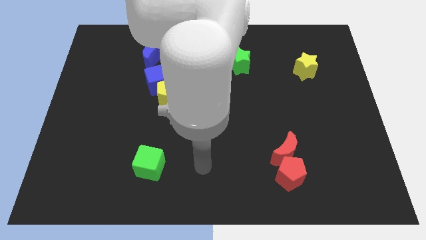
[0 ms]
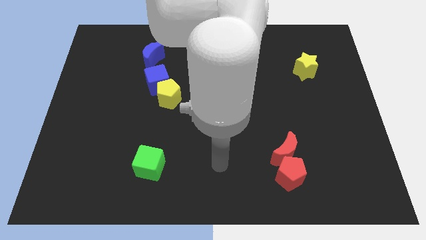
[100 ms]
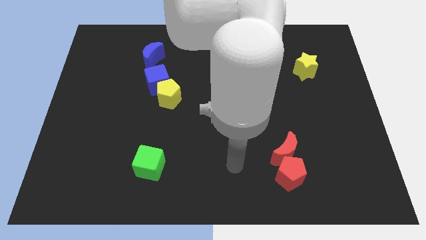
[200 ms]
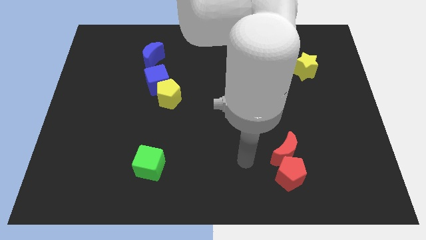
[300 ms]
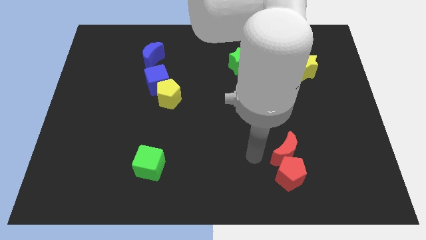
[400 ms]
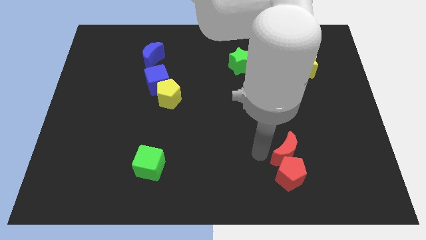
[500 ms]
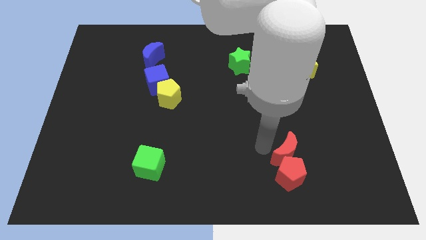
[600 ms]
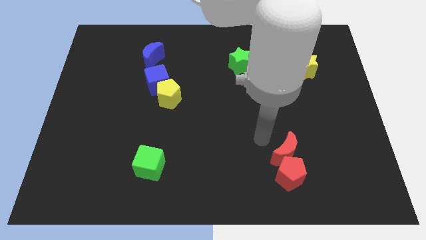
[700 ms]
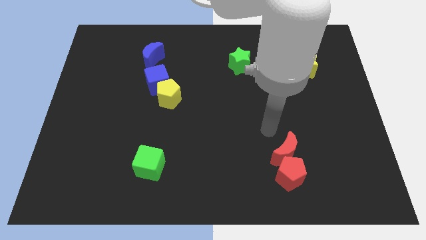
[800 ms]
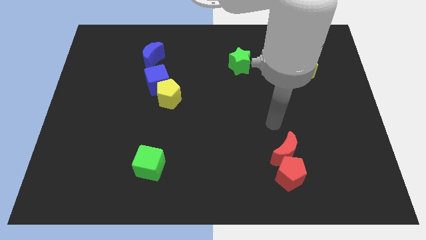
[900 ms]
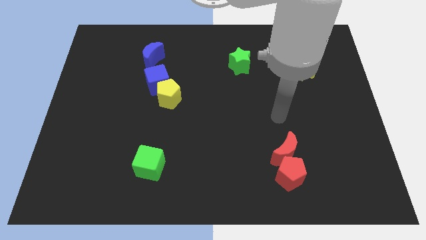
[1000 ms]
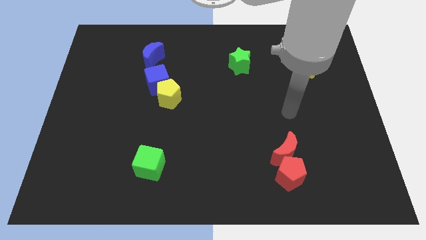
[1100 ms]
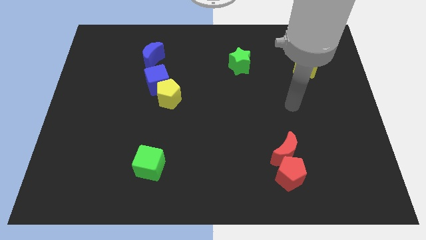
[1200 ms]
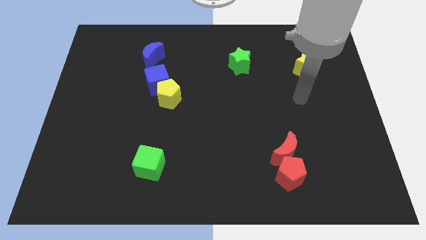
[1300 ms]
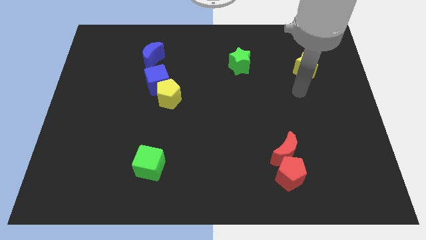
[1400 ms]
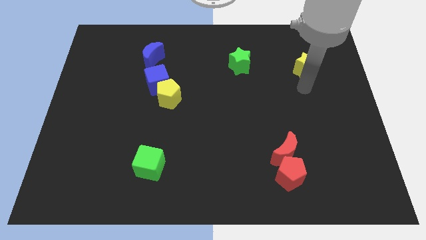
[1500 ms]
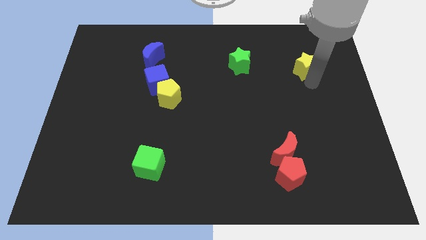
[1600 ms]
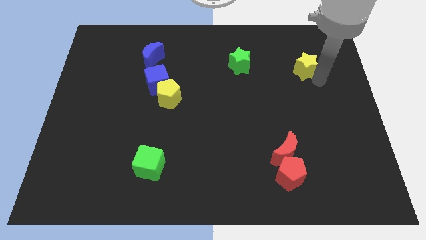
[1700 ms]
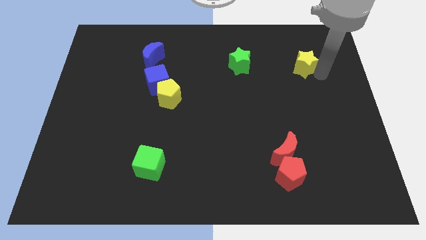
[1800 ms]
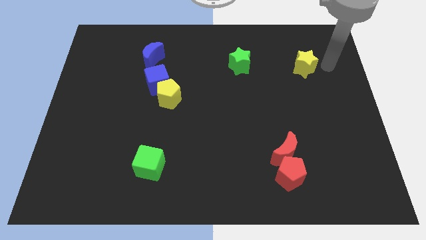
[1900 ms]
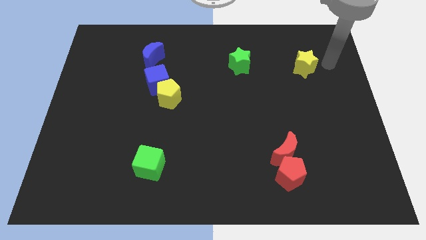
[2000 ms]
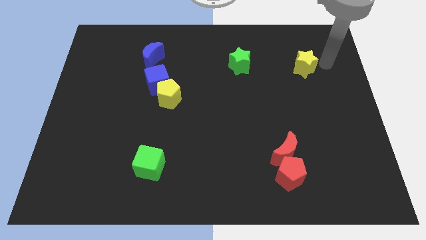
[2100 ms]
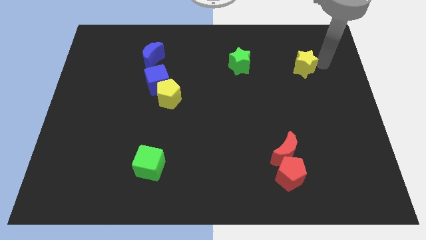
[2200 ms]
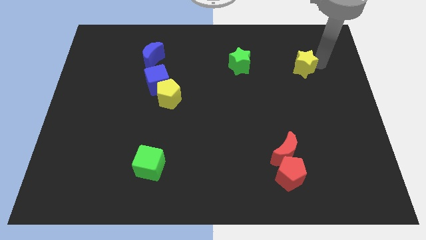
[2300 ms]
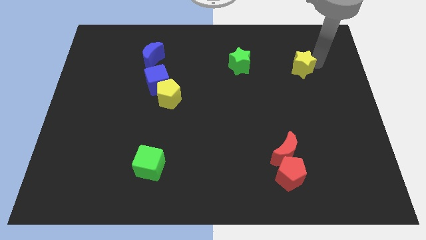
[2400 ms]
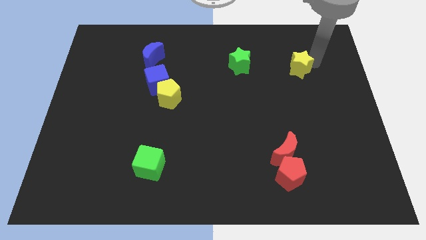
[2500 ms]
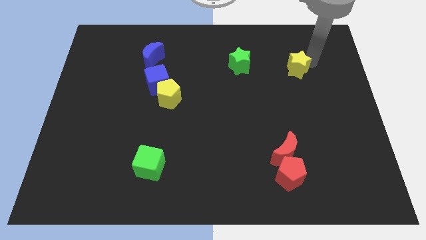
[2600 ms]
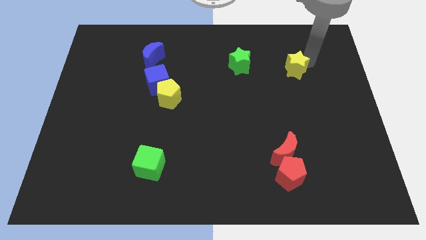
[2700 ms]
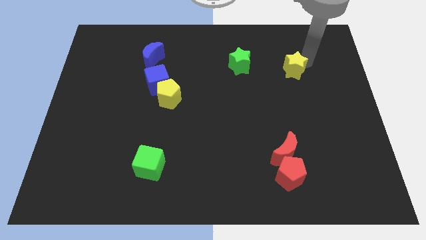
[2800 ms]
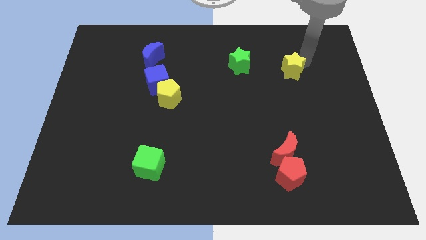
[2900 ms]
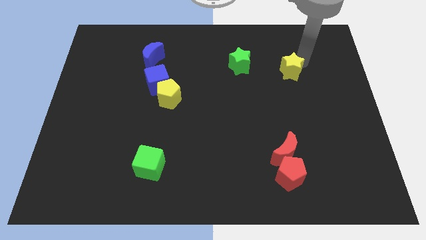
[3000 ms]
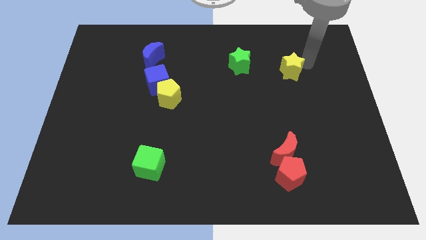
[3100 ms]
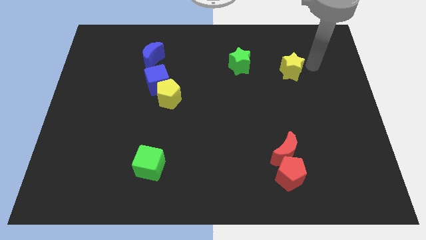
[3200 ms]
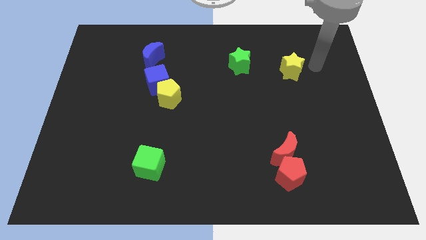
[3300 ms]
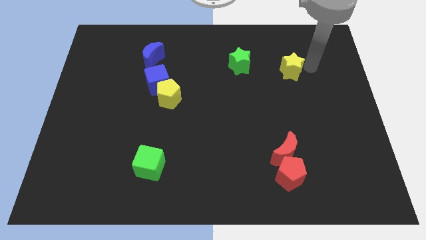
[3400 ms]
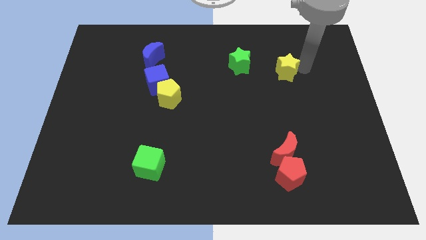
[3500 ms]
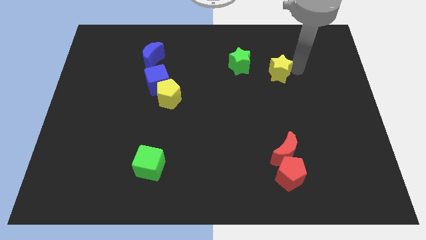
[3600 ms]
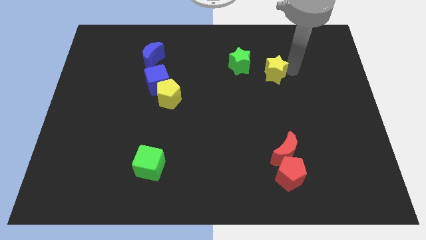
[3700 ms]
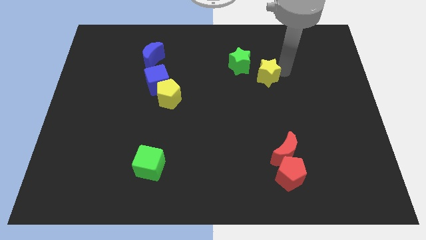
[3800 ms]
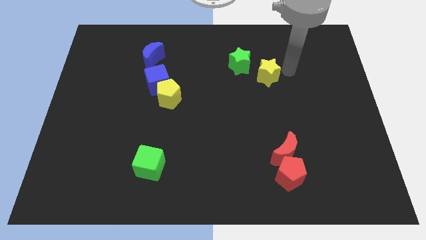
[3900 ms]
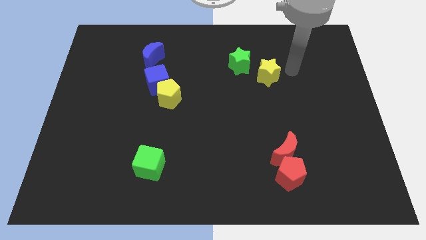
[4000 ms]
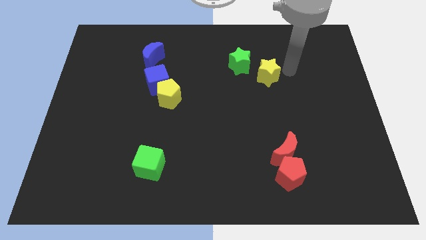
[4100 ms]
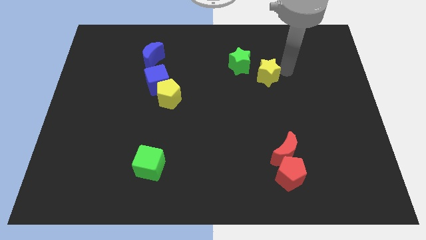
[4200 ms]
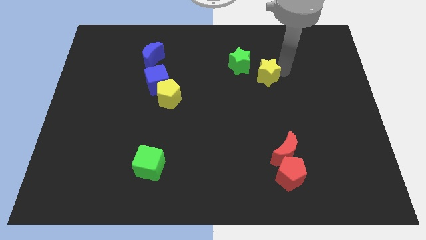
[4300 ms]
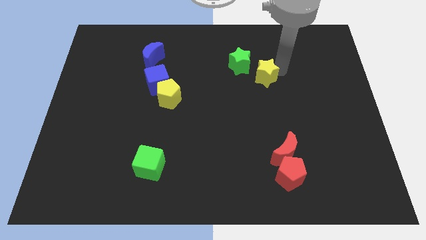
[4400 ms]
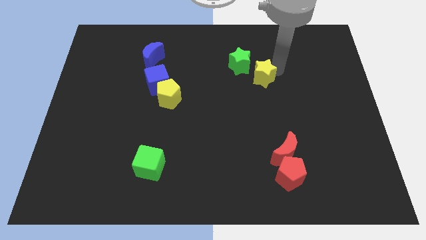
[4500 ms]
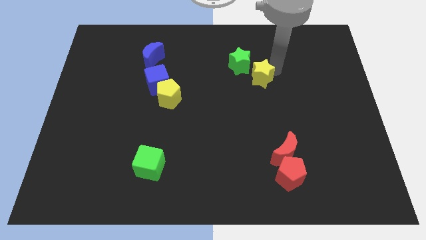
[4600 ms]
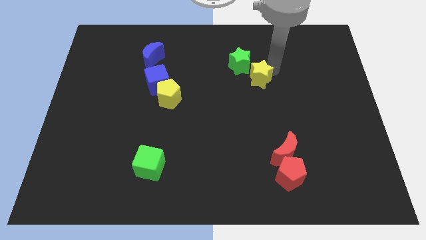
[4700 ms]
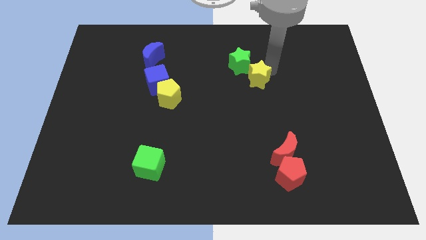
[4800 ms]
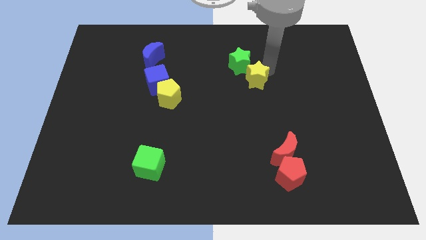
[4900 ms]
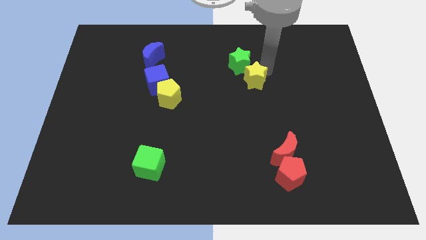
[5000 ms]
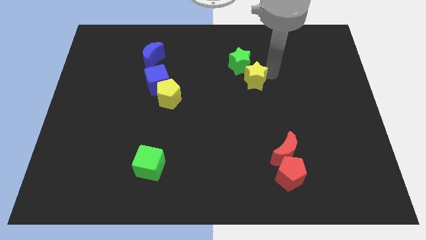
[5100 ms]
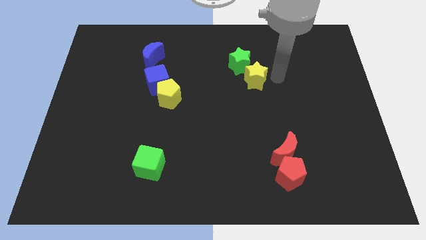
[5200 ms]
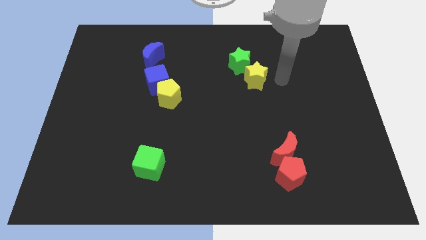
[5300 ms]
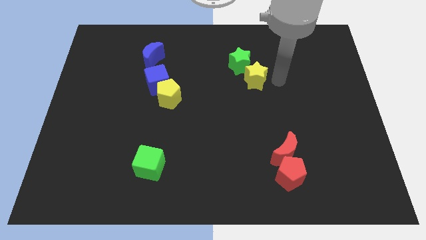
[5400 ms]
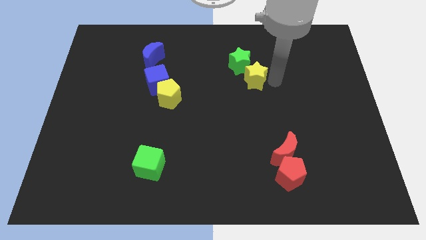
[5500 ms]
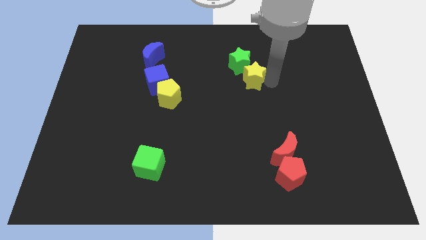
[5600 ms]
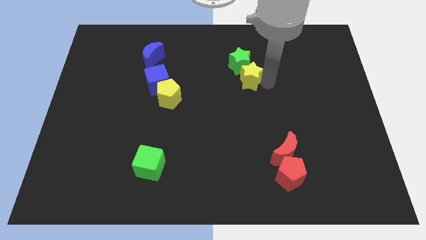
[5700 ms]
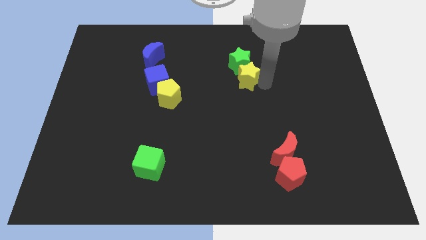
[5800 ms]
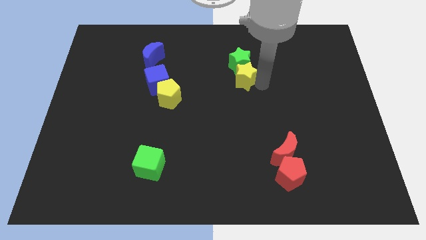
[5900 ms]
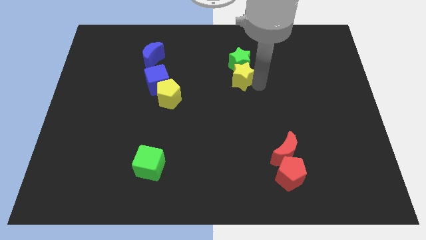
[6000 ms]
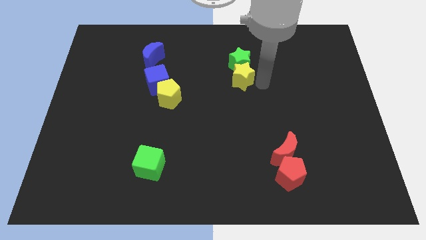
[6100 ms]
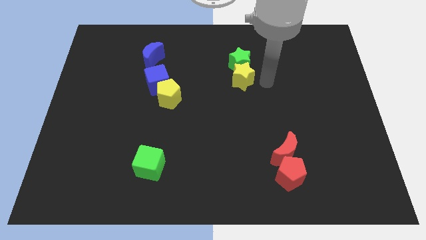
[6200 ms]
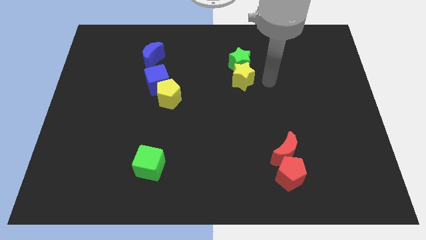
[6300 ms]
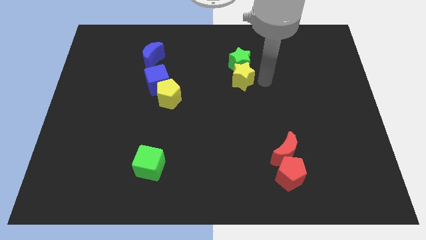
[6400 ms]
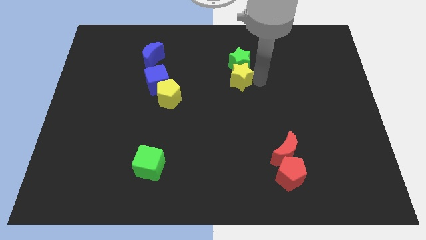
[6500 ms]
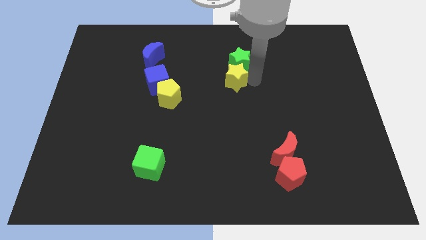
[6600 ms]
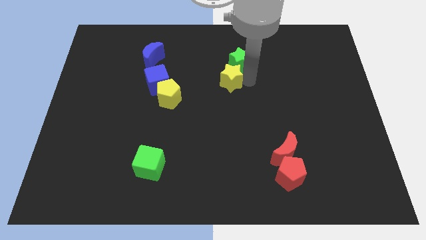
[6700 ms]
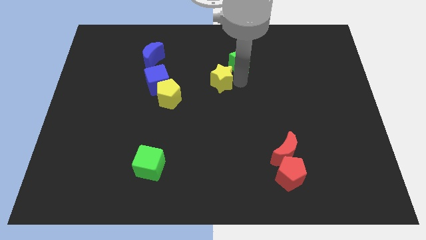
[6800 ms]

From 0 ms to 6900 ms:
move the yellow star left

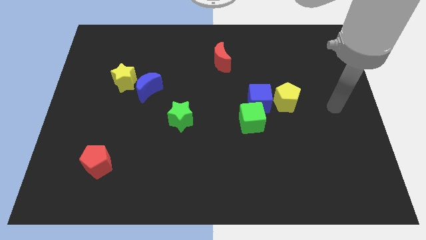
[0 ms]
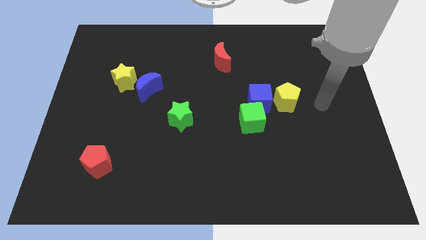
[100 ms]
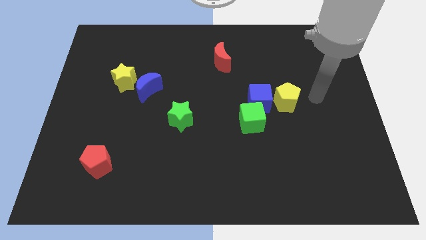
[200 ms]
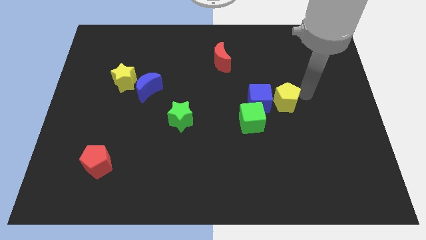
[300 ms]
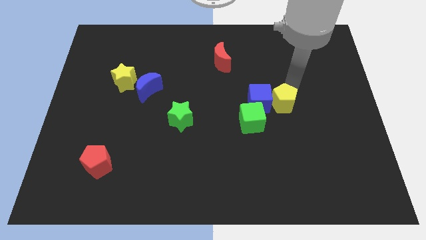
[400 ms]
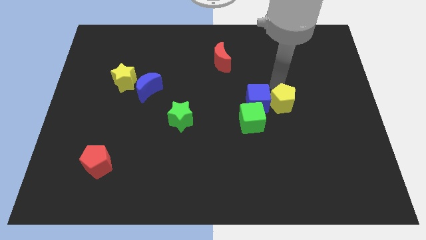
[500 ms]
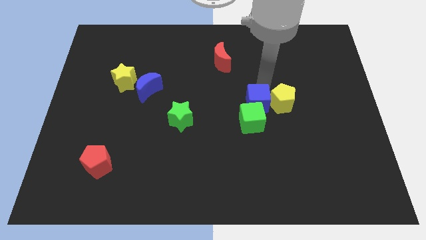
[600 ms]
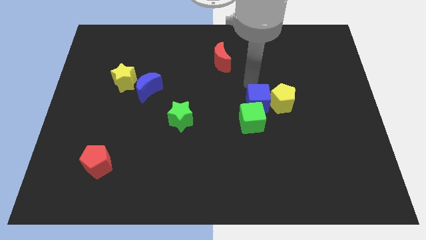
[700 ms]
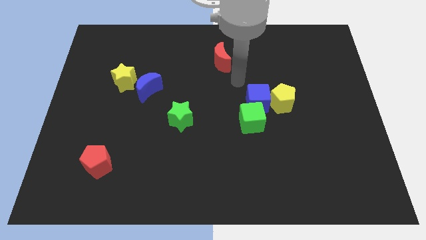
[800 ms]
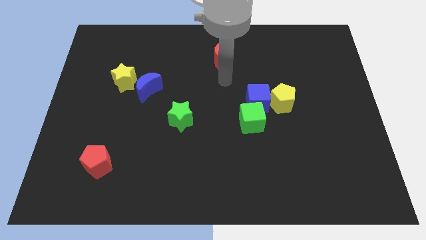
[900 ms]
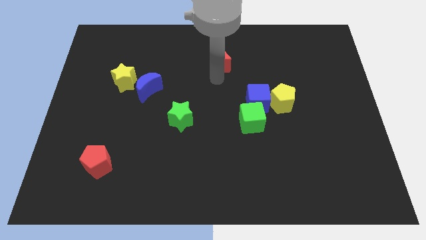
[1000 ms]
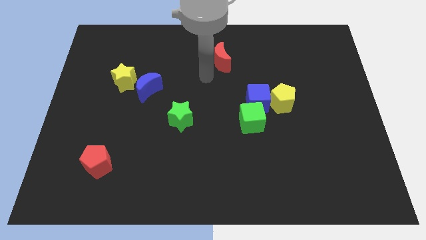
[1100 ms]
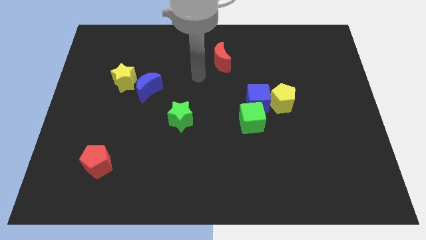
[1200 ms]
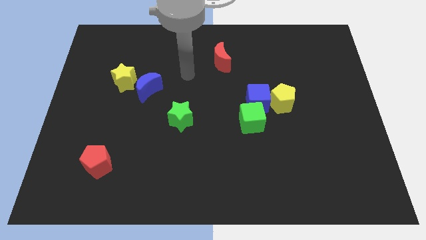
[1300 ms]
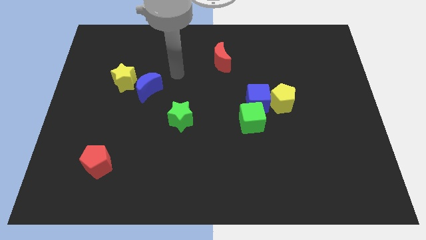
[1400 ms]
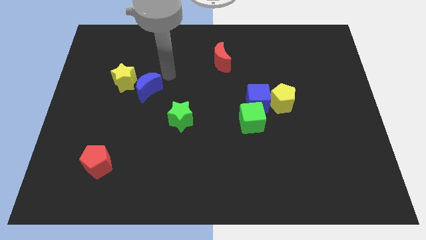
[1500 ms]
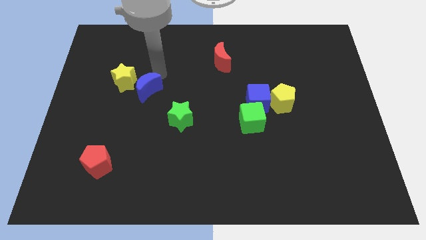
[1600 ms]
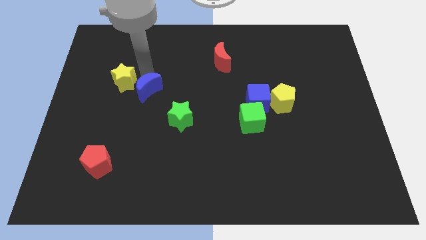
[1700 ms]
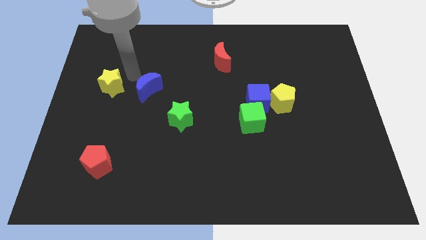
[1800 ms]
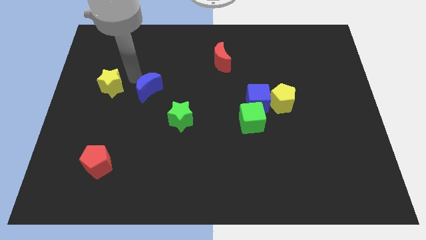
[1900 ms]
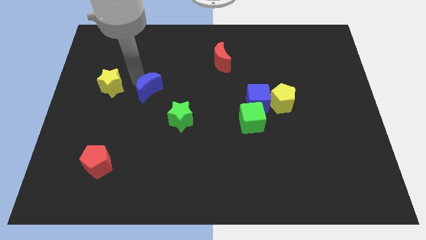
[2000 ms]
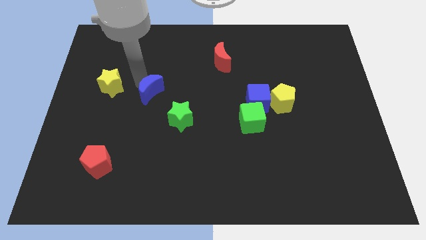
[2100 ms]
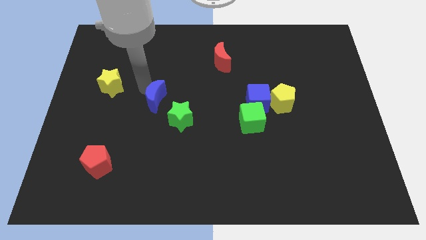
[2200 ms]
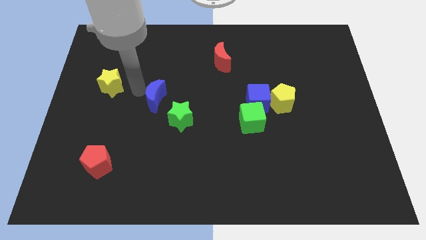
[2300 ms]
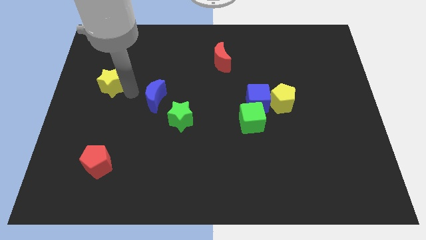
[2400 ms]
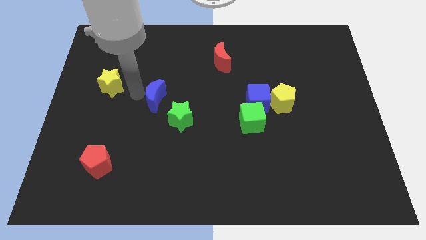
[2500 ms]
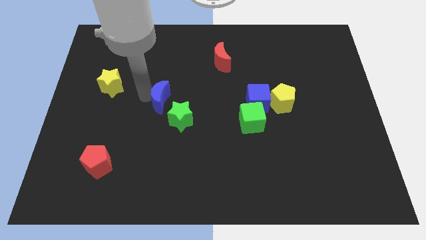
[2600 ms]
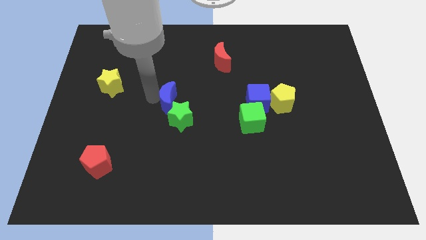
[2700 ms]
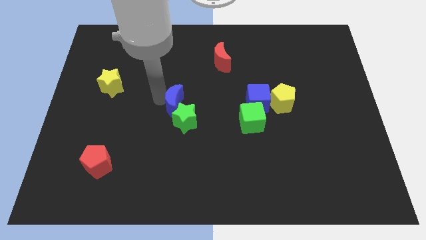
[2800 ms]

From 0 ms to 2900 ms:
slightly push the blue moon down and right diagonally
